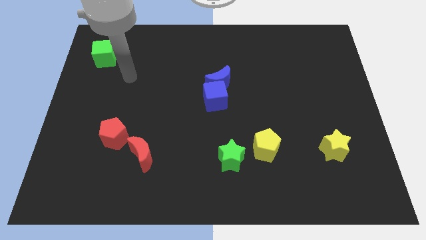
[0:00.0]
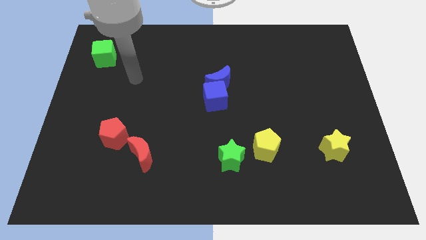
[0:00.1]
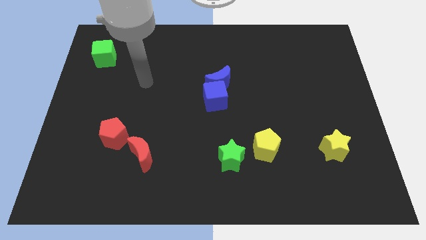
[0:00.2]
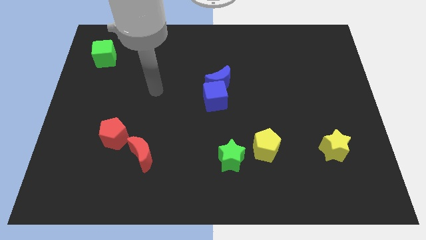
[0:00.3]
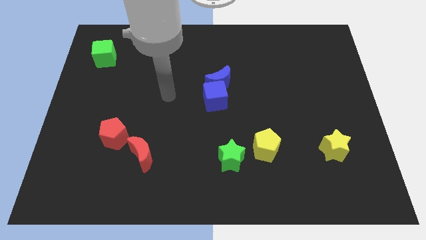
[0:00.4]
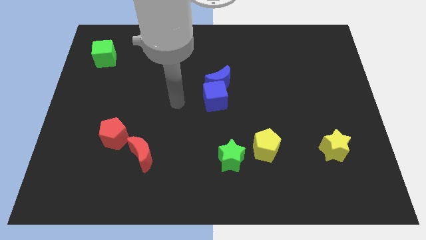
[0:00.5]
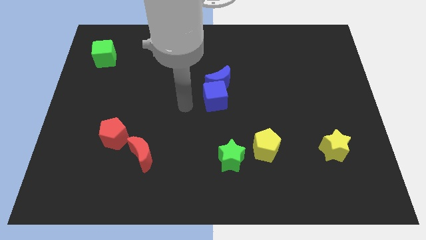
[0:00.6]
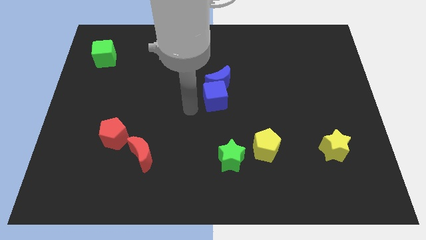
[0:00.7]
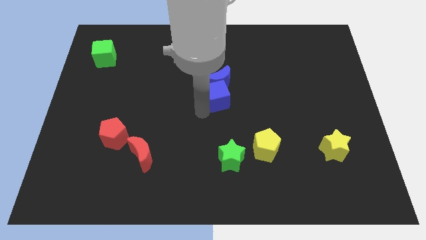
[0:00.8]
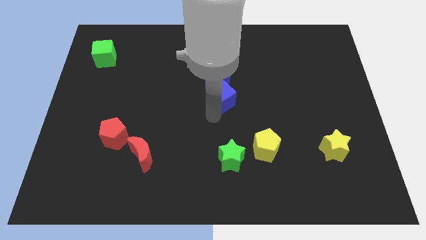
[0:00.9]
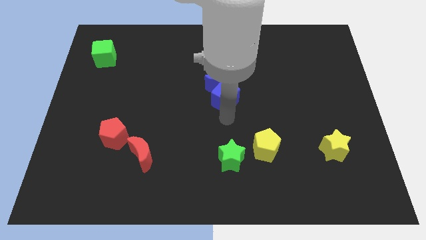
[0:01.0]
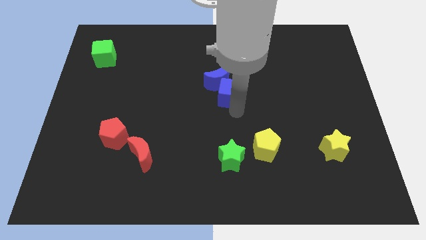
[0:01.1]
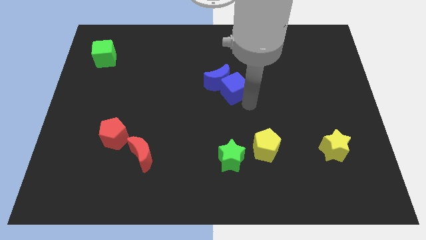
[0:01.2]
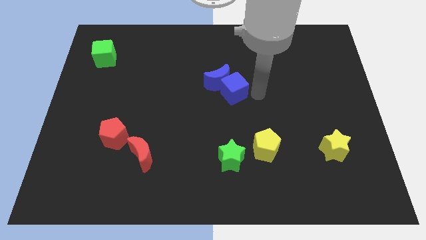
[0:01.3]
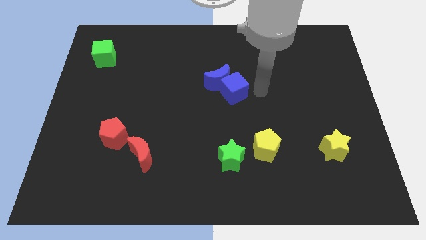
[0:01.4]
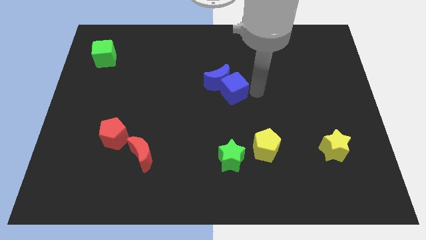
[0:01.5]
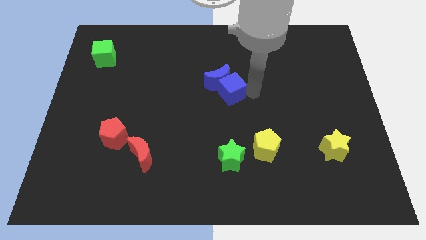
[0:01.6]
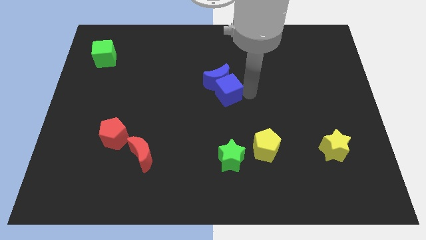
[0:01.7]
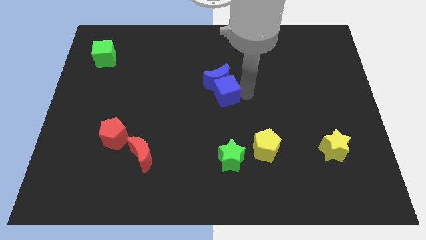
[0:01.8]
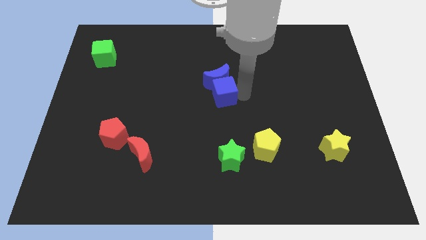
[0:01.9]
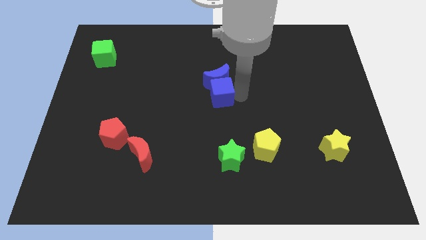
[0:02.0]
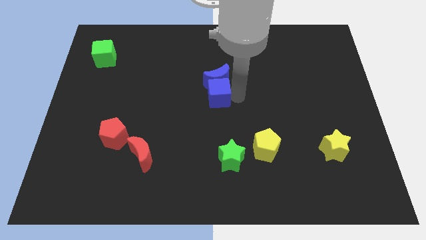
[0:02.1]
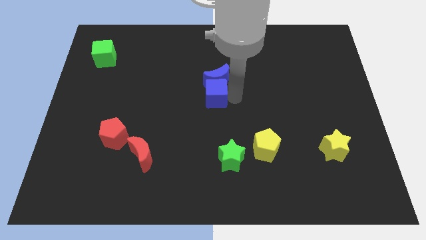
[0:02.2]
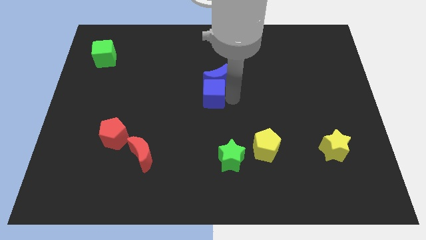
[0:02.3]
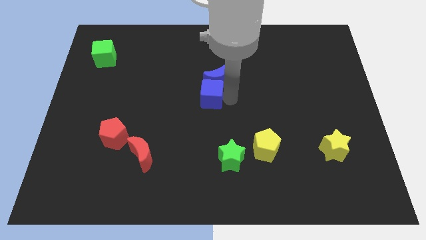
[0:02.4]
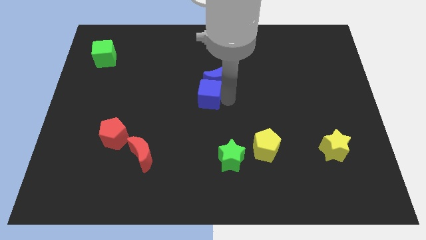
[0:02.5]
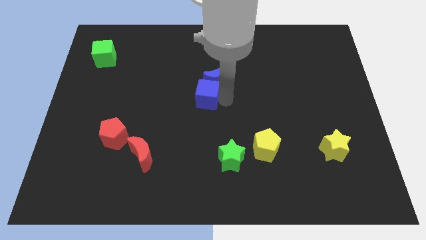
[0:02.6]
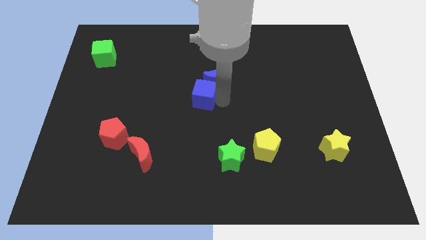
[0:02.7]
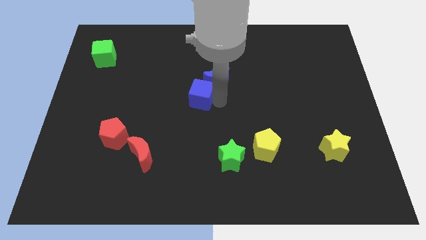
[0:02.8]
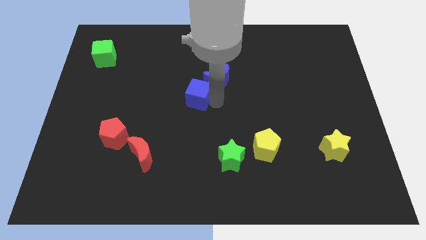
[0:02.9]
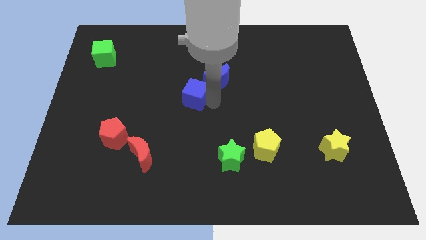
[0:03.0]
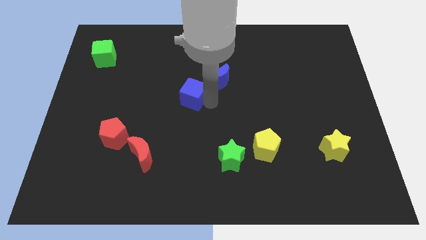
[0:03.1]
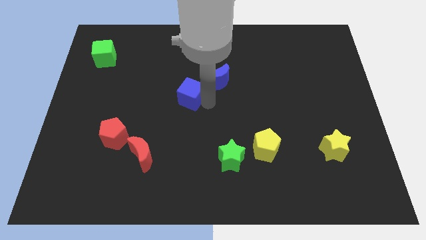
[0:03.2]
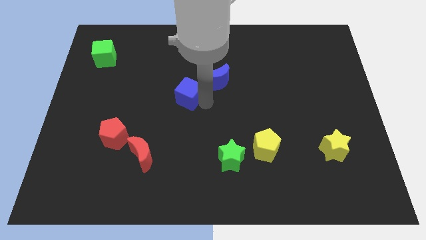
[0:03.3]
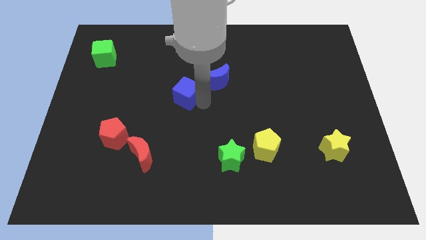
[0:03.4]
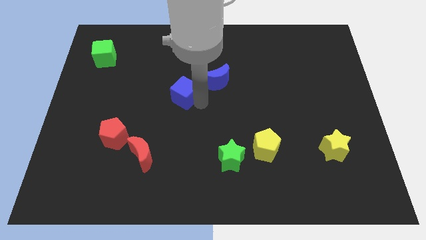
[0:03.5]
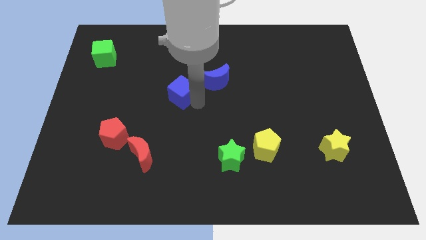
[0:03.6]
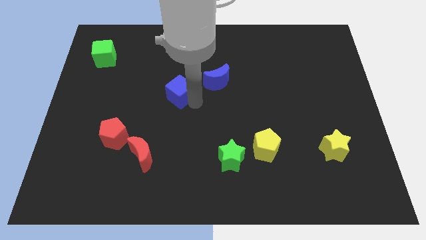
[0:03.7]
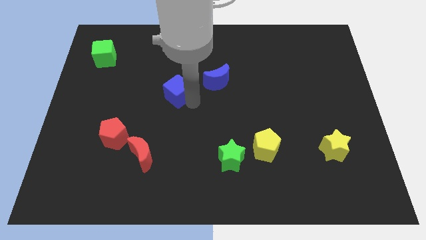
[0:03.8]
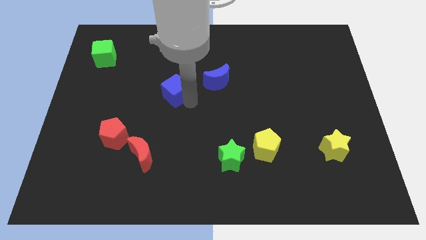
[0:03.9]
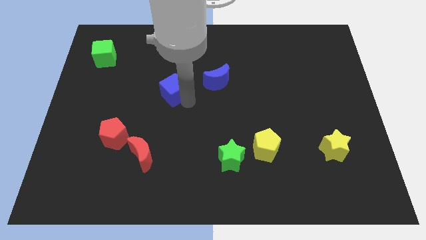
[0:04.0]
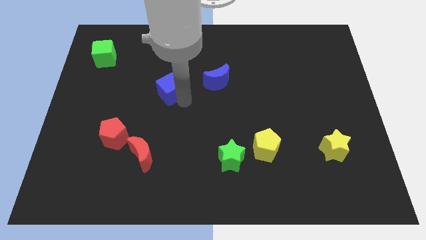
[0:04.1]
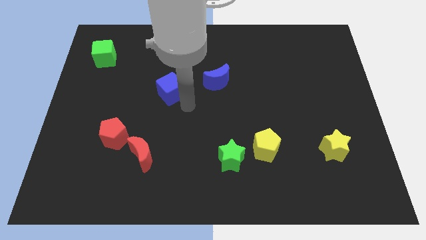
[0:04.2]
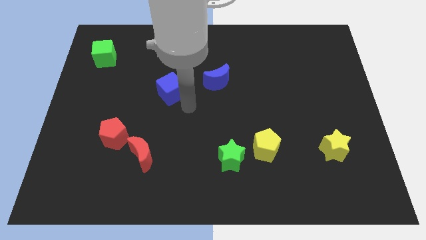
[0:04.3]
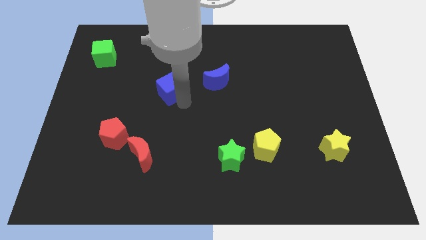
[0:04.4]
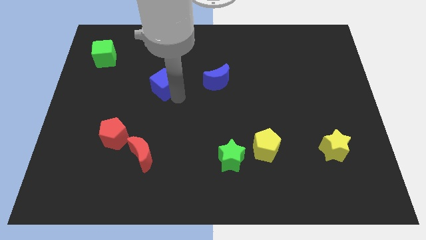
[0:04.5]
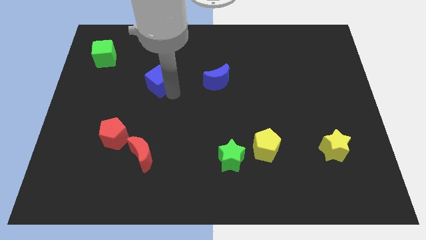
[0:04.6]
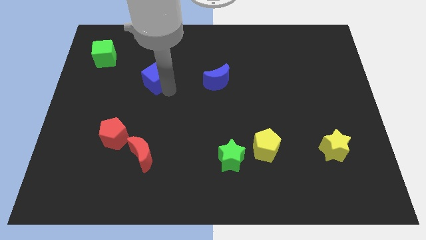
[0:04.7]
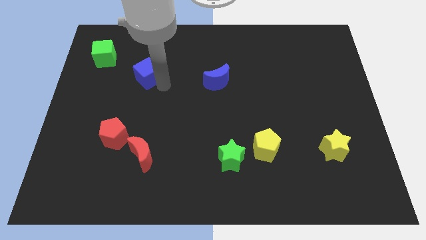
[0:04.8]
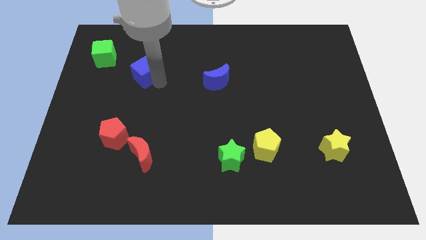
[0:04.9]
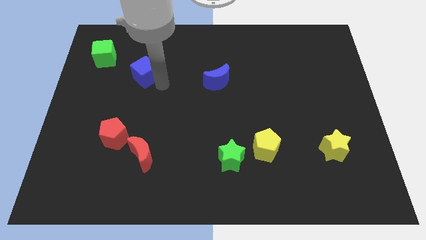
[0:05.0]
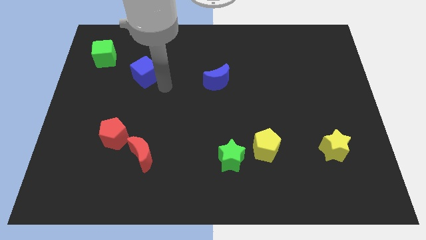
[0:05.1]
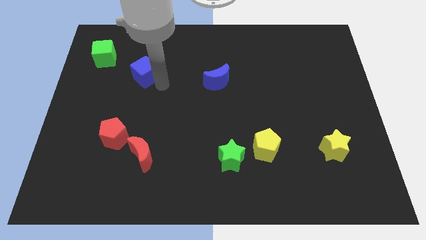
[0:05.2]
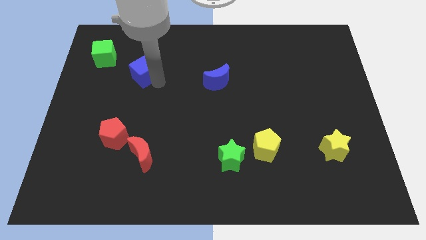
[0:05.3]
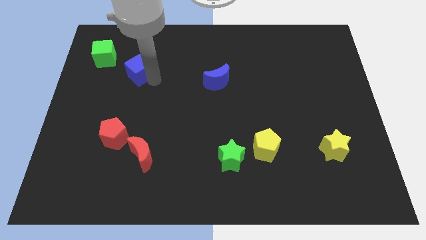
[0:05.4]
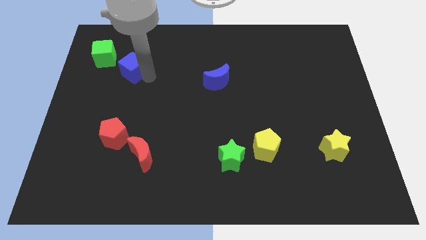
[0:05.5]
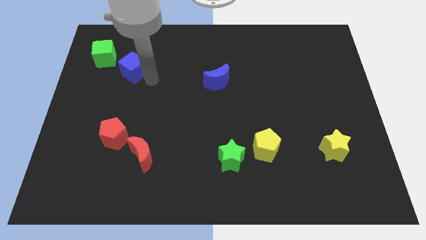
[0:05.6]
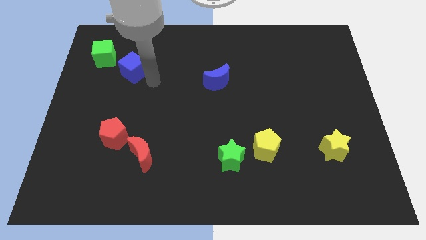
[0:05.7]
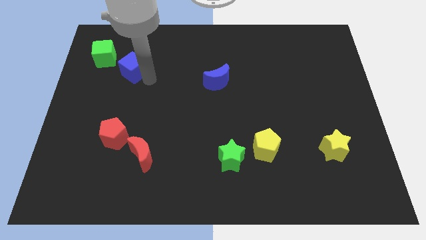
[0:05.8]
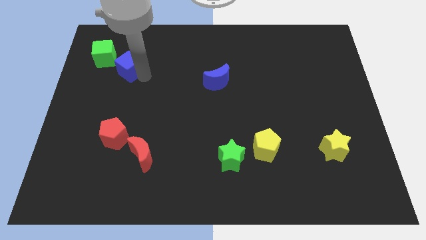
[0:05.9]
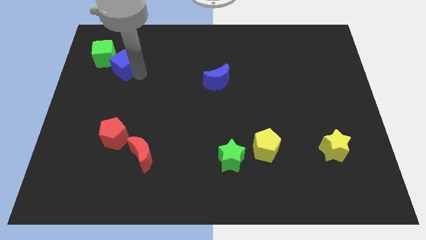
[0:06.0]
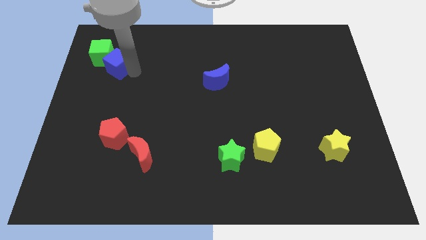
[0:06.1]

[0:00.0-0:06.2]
slide the blue cube towards the green cube

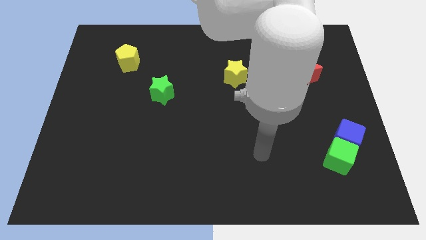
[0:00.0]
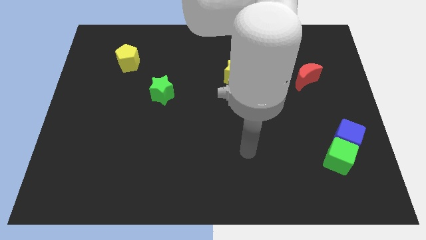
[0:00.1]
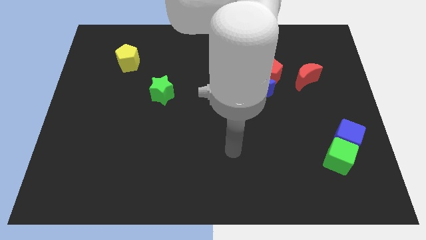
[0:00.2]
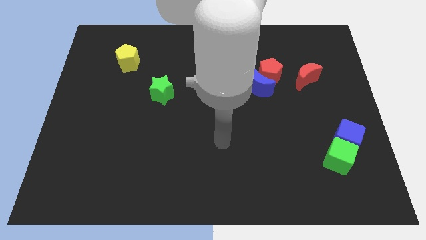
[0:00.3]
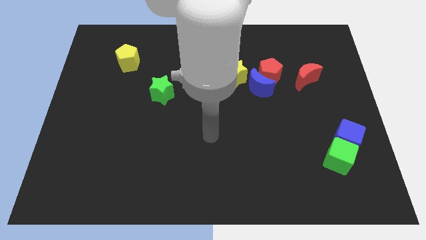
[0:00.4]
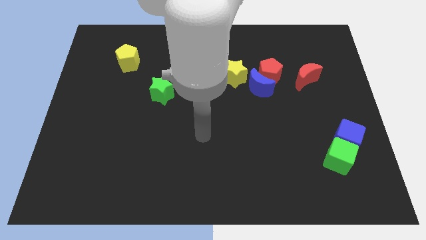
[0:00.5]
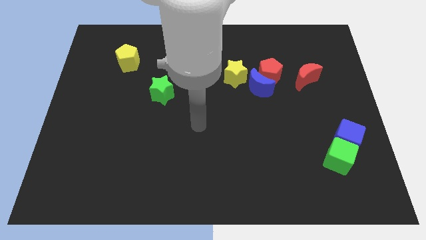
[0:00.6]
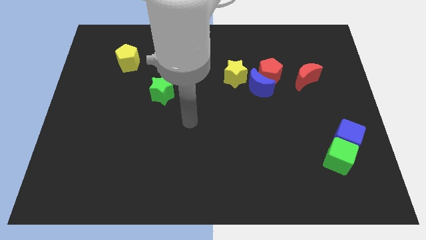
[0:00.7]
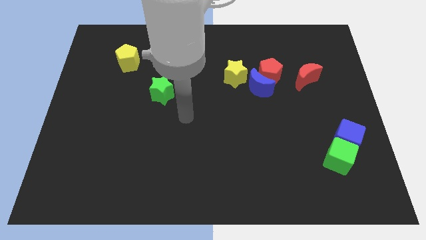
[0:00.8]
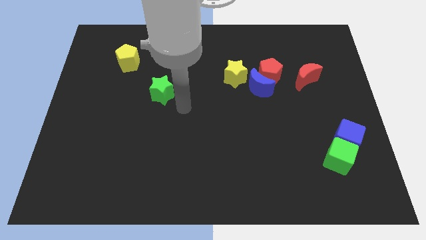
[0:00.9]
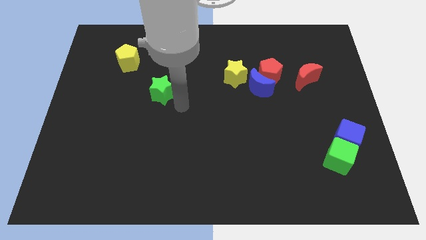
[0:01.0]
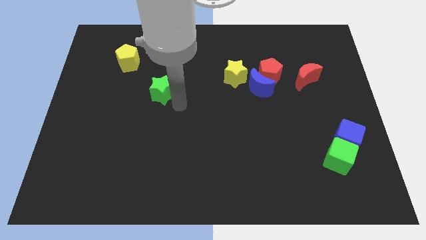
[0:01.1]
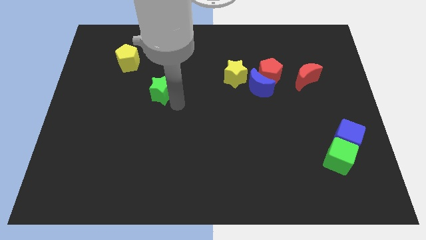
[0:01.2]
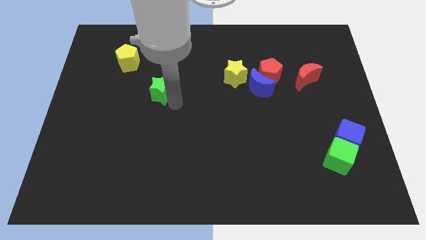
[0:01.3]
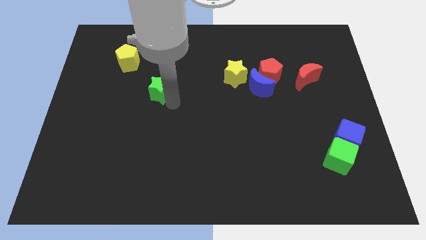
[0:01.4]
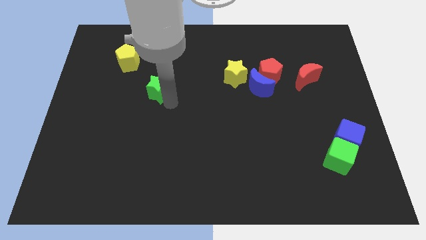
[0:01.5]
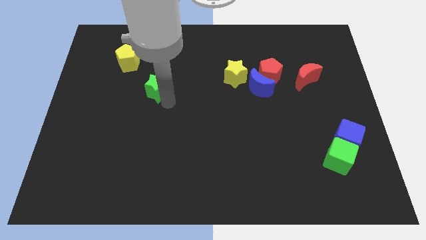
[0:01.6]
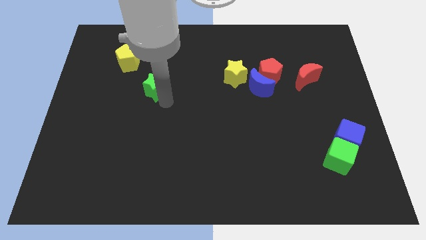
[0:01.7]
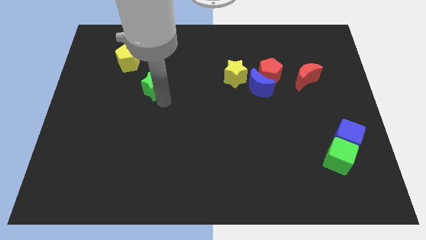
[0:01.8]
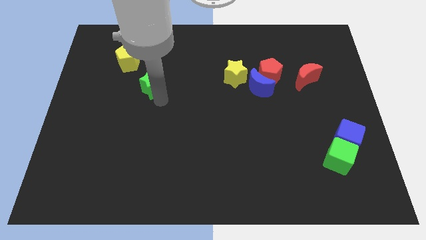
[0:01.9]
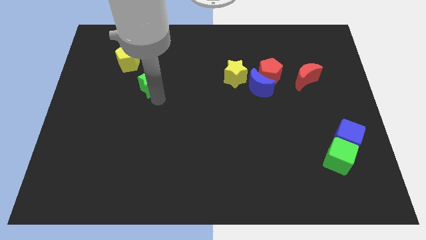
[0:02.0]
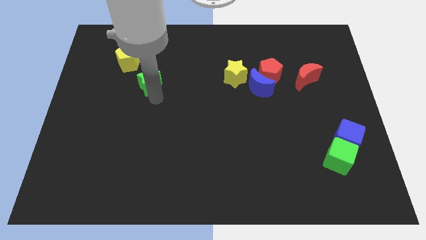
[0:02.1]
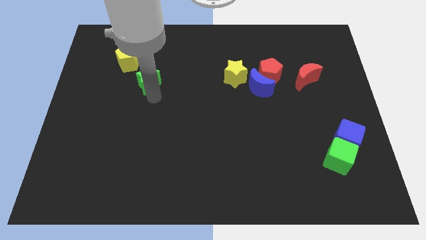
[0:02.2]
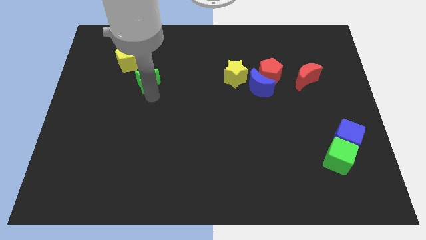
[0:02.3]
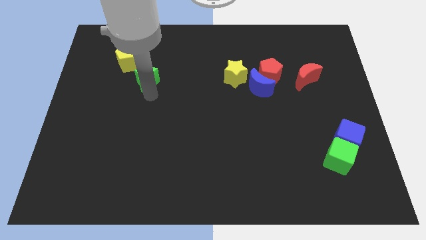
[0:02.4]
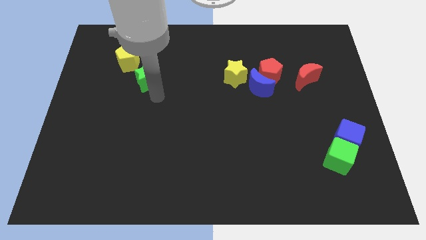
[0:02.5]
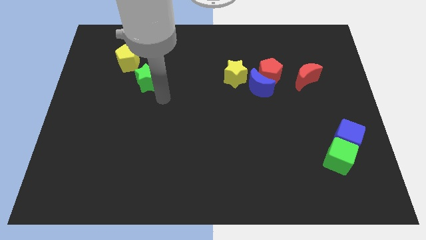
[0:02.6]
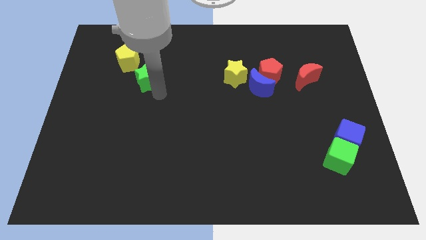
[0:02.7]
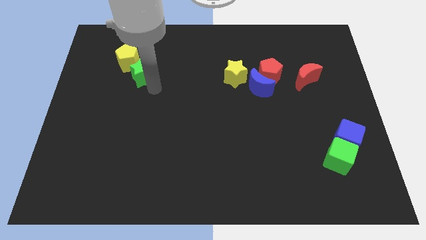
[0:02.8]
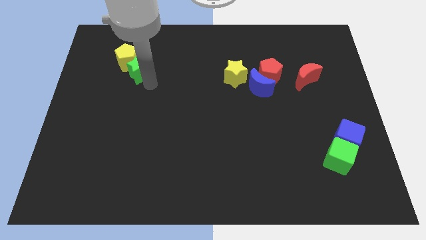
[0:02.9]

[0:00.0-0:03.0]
push the green star towards the yellow pentagon
